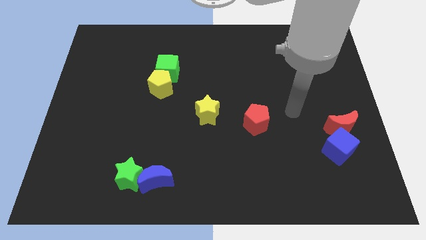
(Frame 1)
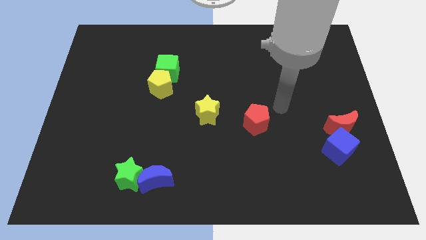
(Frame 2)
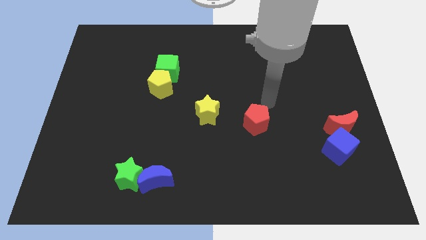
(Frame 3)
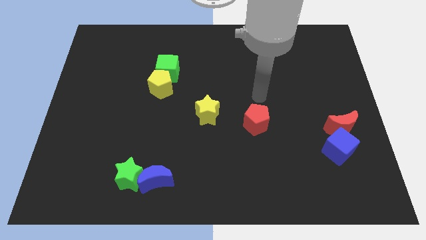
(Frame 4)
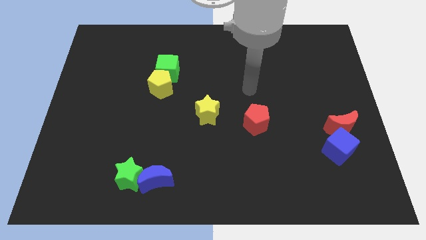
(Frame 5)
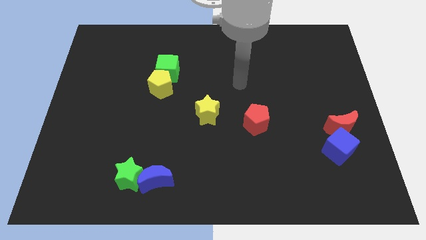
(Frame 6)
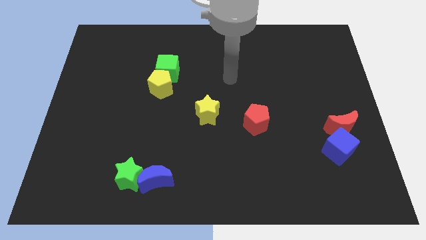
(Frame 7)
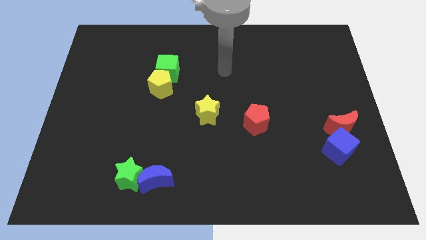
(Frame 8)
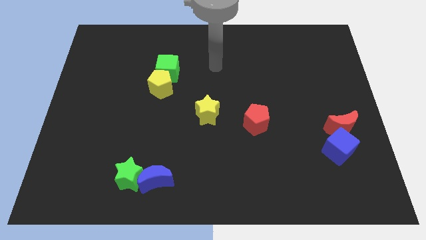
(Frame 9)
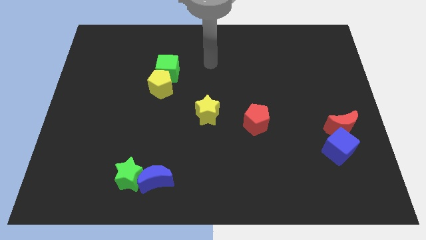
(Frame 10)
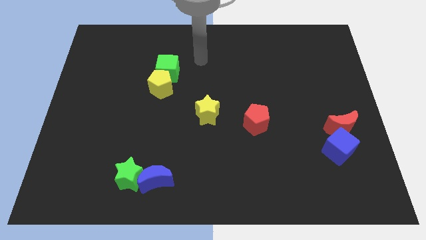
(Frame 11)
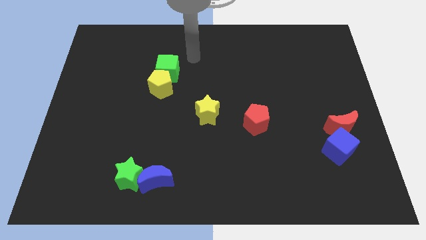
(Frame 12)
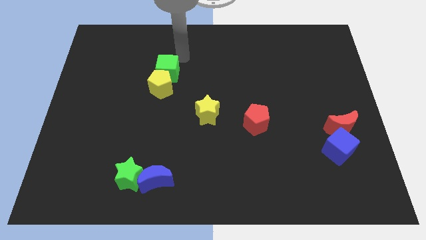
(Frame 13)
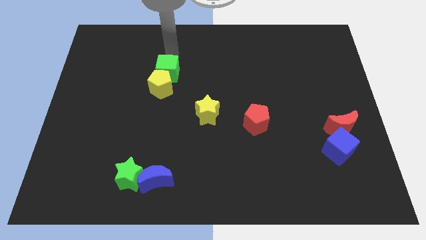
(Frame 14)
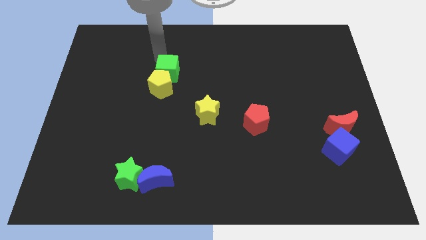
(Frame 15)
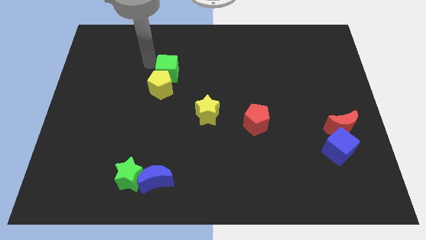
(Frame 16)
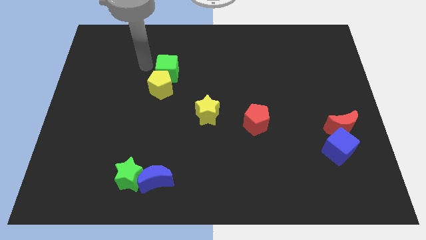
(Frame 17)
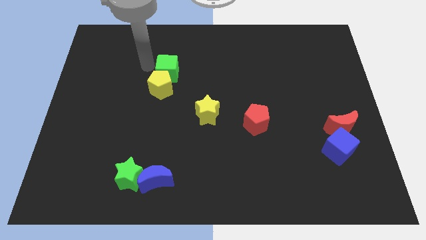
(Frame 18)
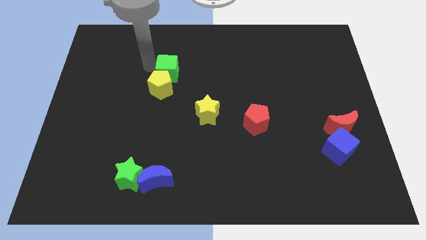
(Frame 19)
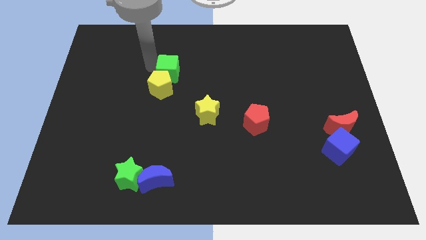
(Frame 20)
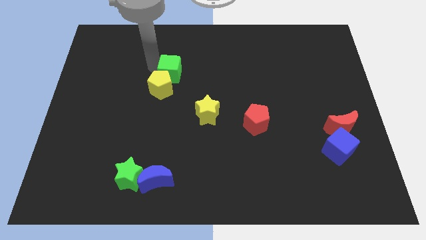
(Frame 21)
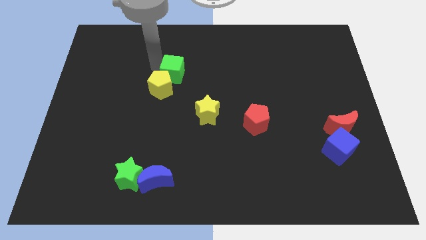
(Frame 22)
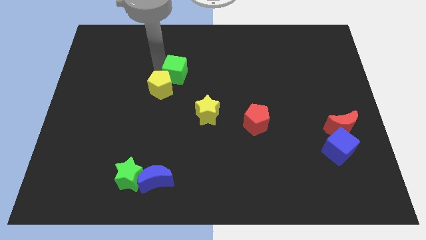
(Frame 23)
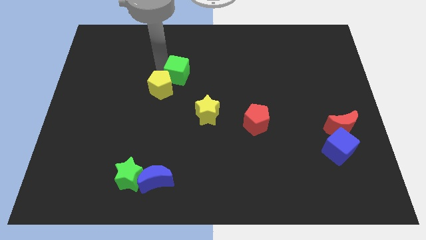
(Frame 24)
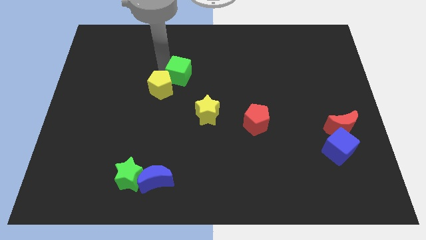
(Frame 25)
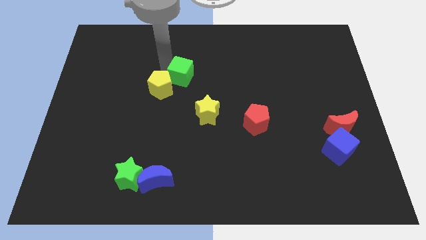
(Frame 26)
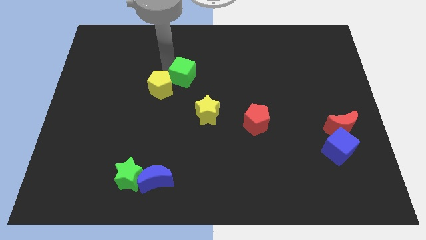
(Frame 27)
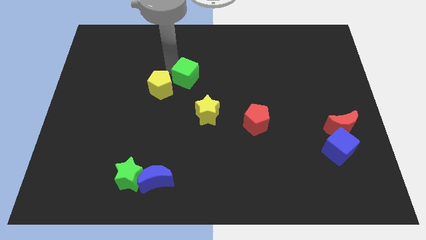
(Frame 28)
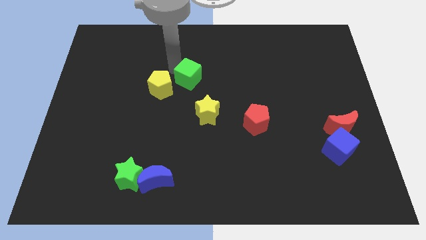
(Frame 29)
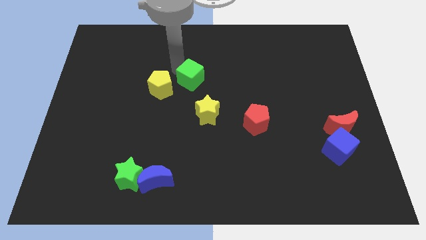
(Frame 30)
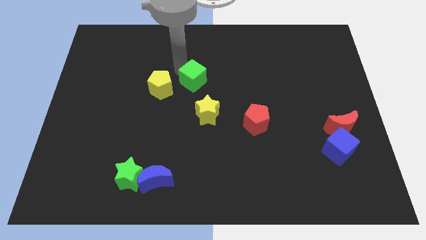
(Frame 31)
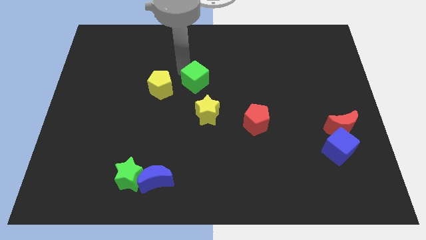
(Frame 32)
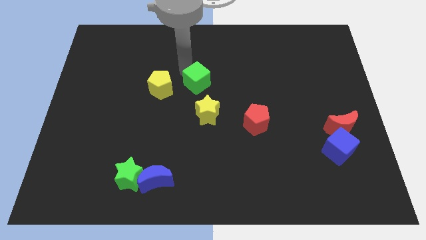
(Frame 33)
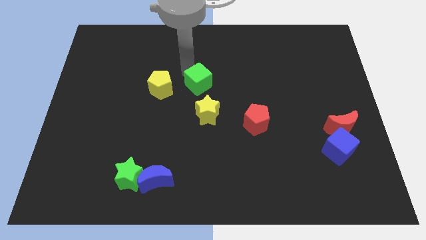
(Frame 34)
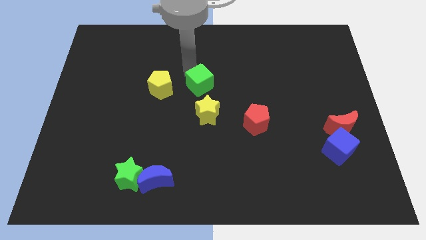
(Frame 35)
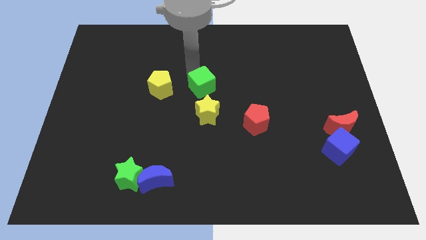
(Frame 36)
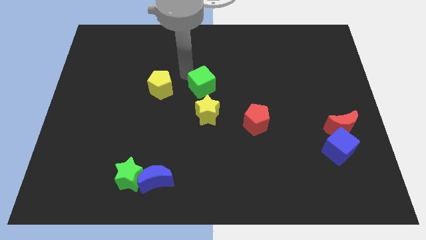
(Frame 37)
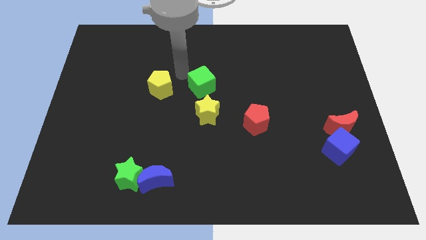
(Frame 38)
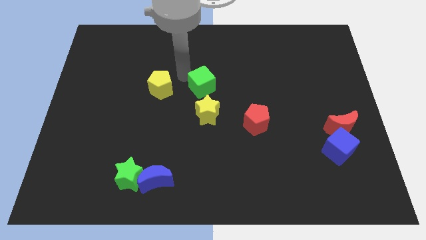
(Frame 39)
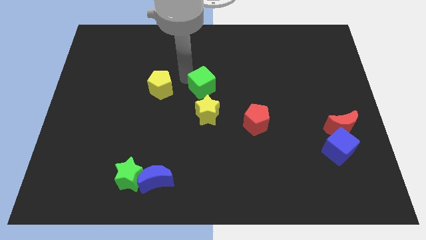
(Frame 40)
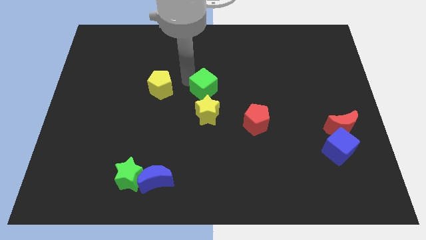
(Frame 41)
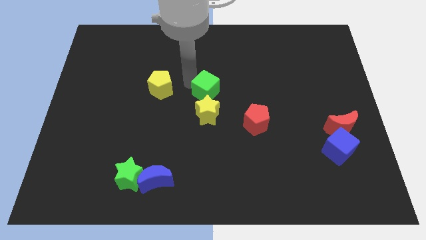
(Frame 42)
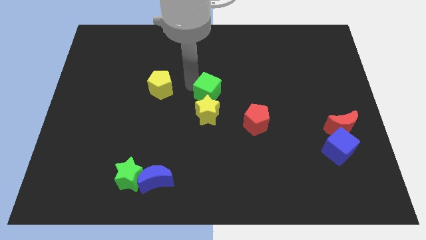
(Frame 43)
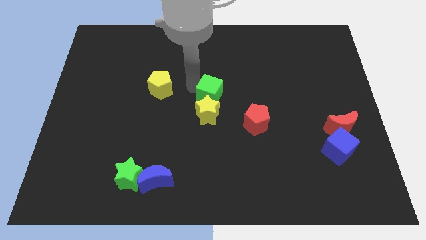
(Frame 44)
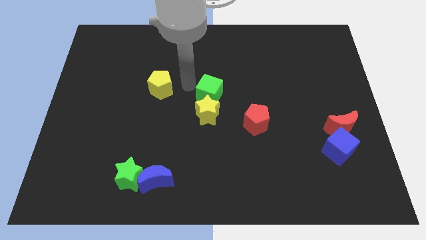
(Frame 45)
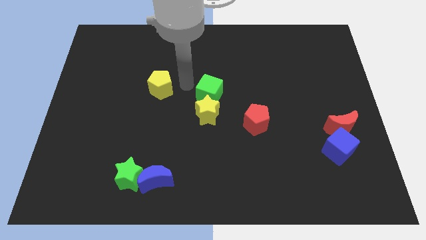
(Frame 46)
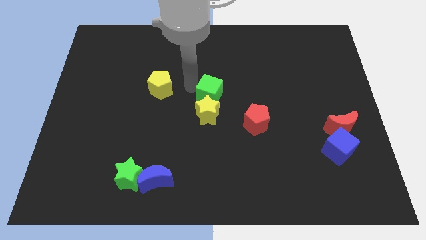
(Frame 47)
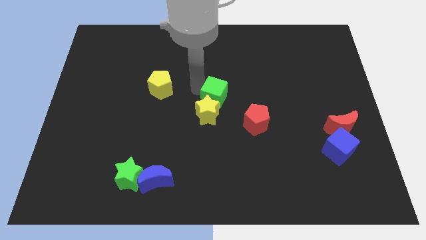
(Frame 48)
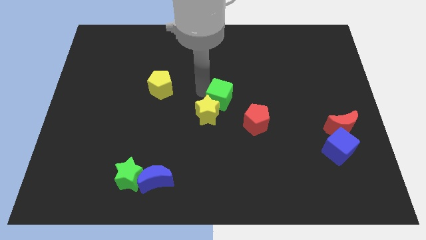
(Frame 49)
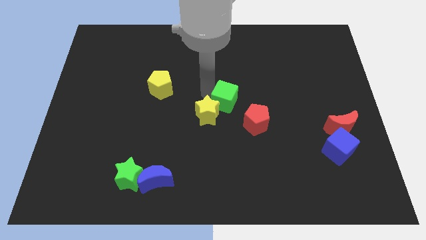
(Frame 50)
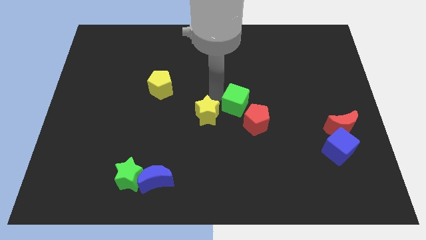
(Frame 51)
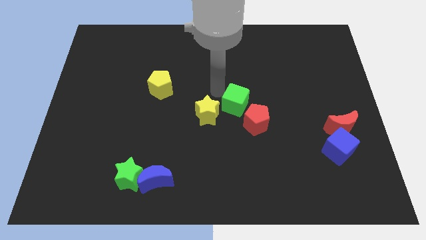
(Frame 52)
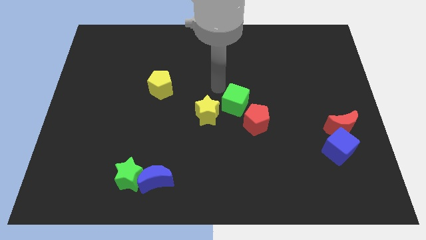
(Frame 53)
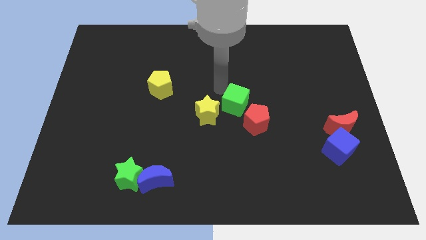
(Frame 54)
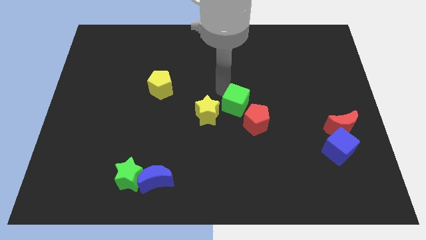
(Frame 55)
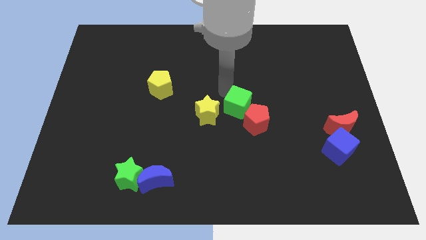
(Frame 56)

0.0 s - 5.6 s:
move the green cube next to the red pentagon
